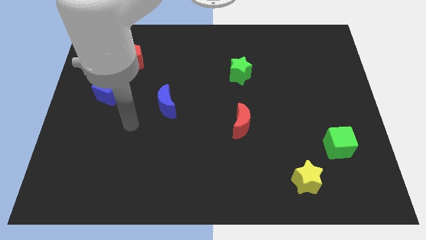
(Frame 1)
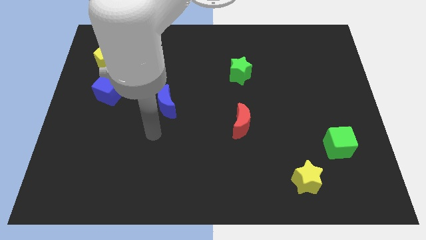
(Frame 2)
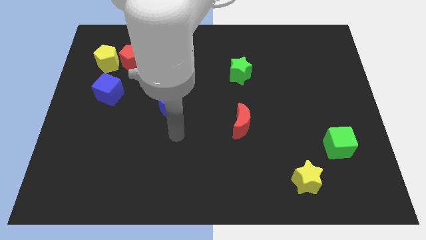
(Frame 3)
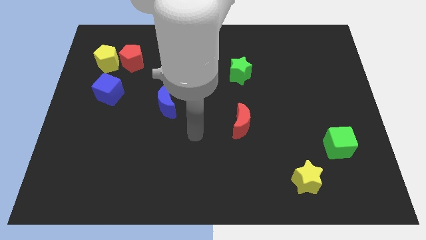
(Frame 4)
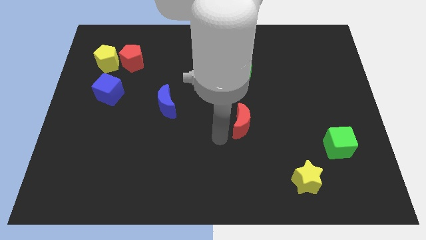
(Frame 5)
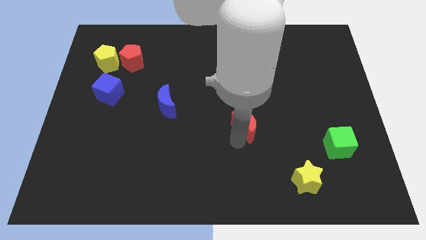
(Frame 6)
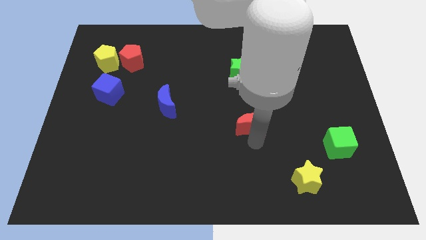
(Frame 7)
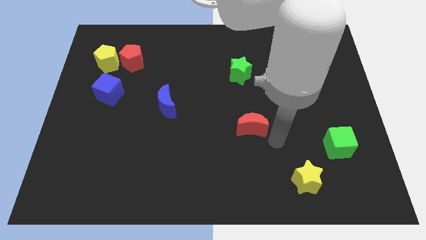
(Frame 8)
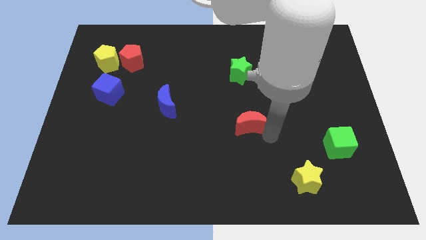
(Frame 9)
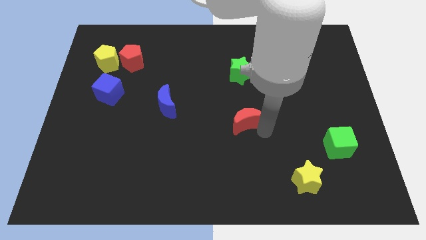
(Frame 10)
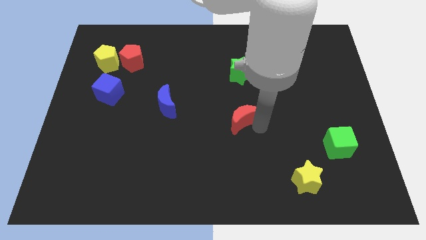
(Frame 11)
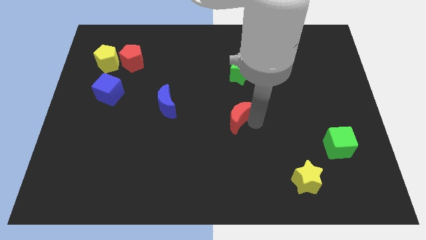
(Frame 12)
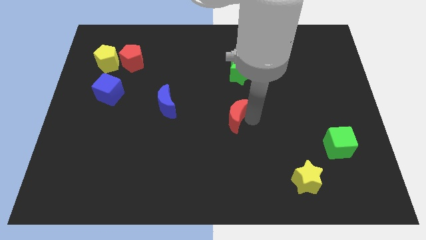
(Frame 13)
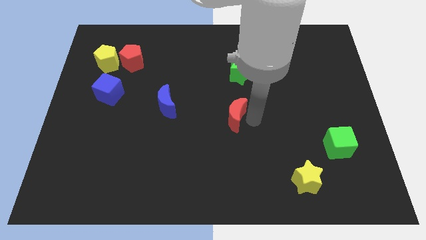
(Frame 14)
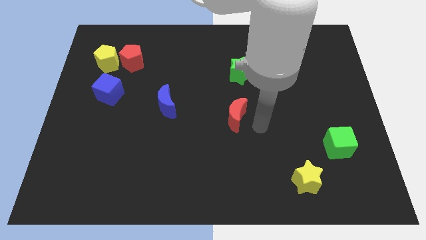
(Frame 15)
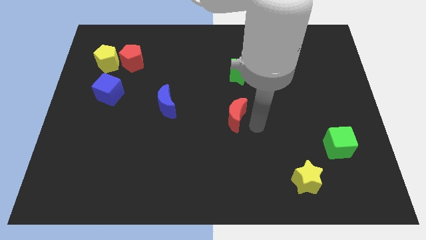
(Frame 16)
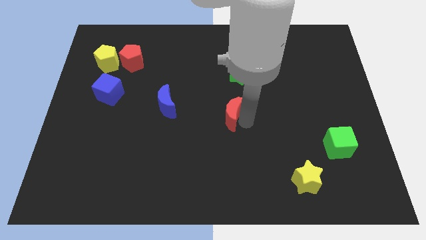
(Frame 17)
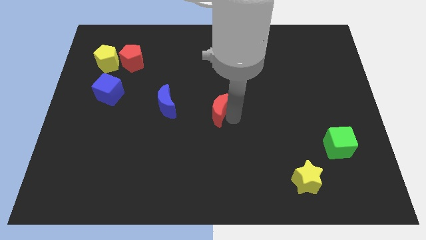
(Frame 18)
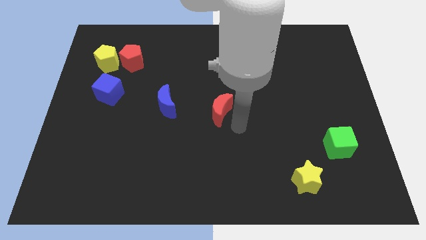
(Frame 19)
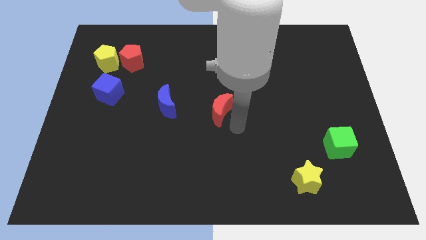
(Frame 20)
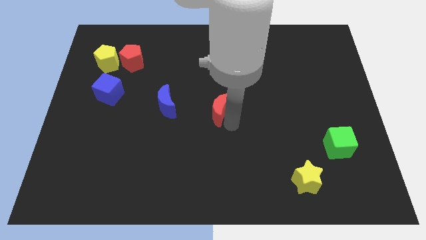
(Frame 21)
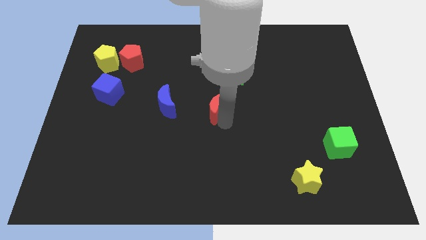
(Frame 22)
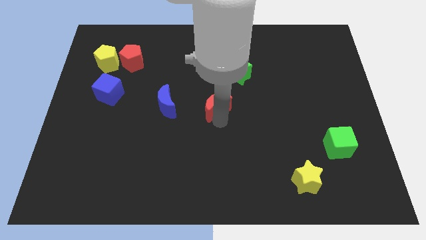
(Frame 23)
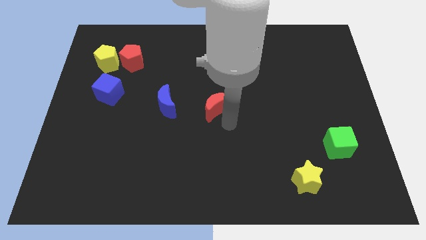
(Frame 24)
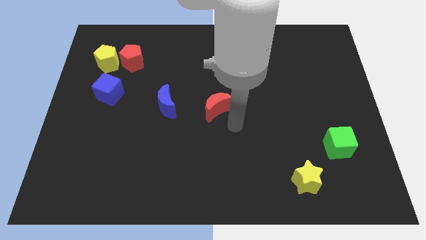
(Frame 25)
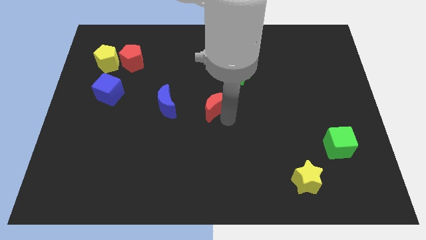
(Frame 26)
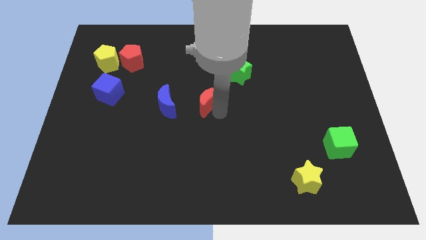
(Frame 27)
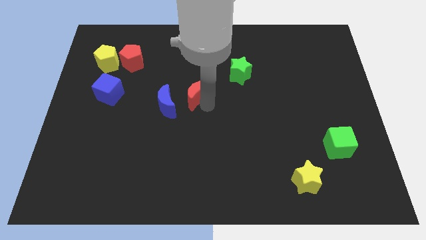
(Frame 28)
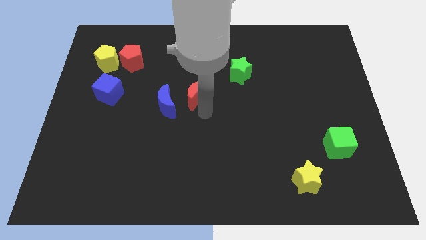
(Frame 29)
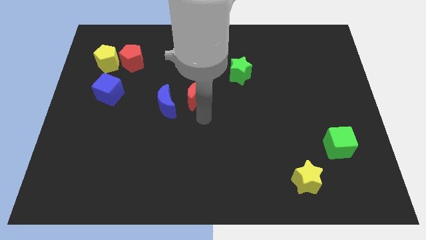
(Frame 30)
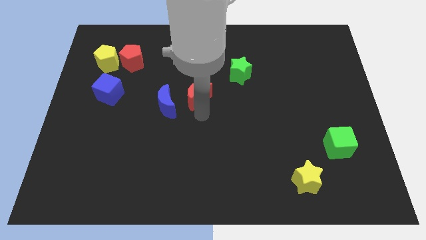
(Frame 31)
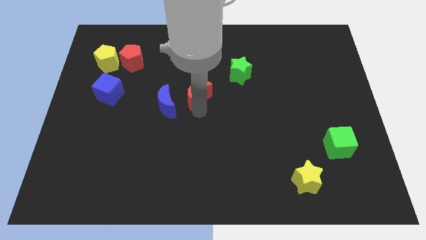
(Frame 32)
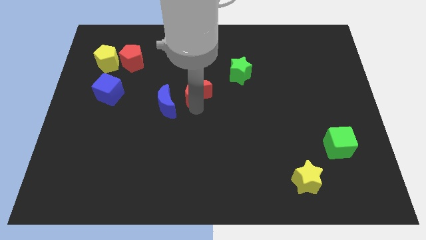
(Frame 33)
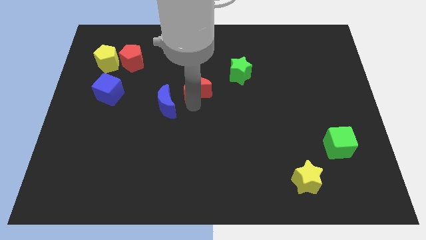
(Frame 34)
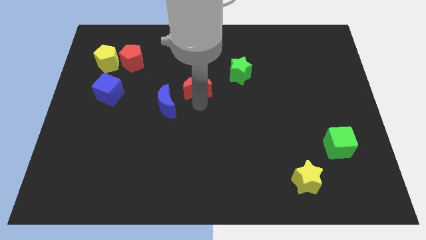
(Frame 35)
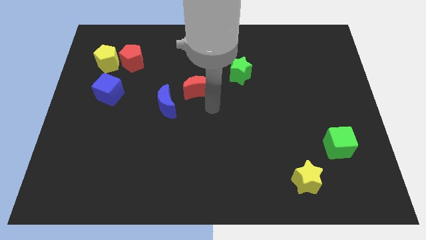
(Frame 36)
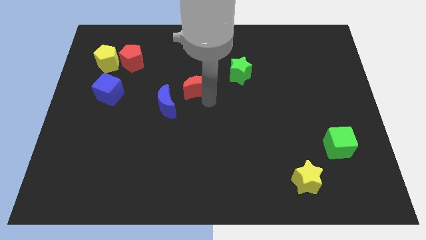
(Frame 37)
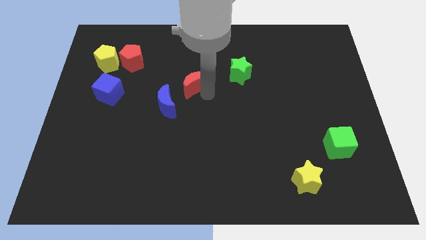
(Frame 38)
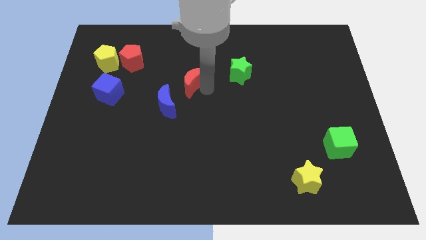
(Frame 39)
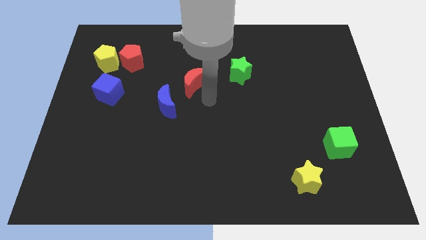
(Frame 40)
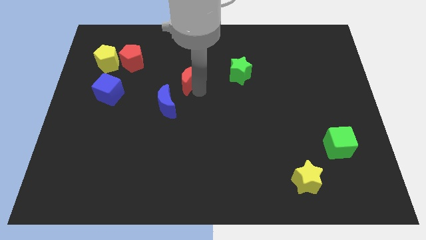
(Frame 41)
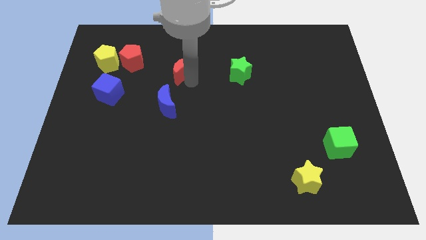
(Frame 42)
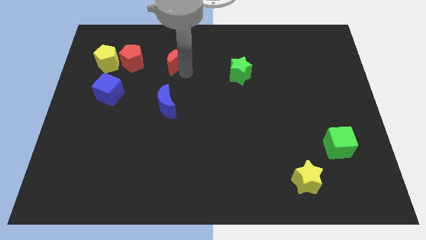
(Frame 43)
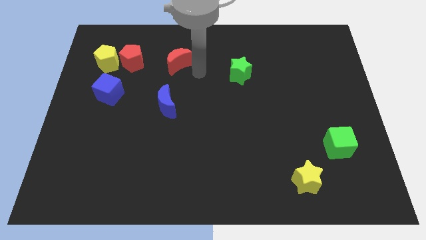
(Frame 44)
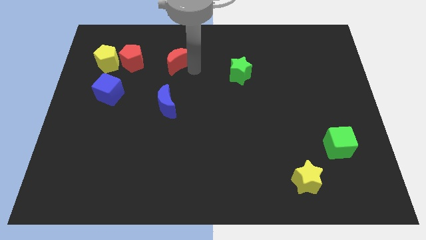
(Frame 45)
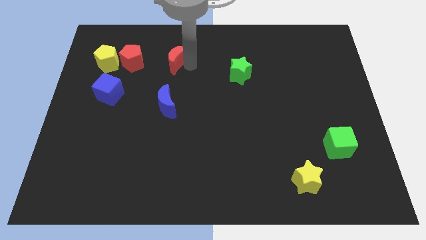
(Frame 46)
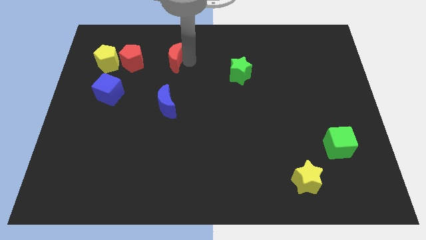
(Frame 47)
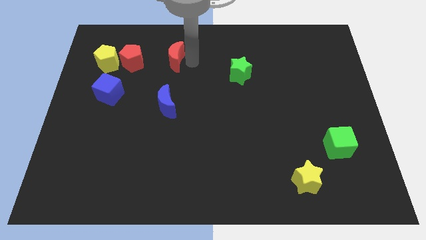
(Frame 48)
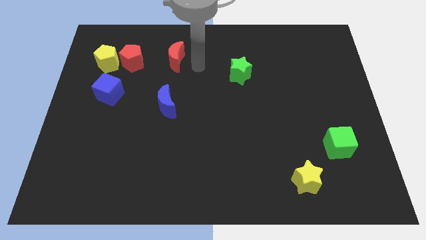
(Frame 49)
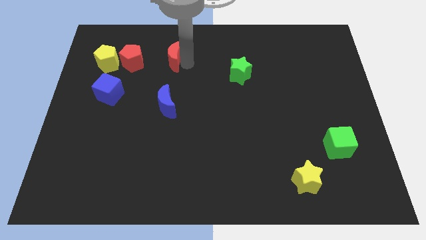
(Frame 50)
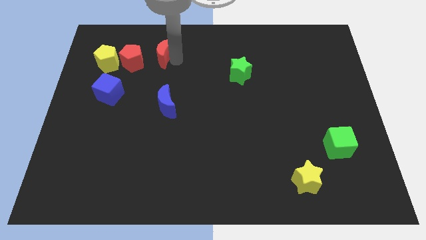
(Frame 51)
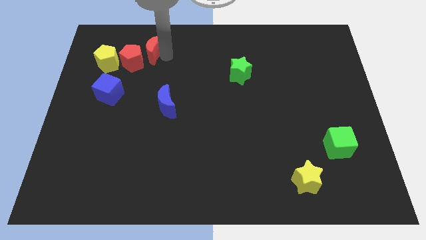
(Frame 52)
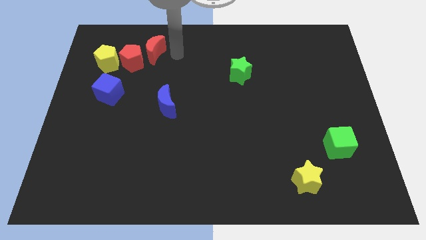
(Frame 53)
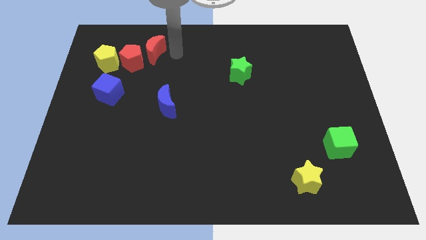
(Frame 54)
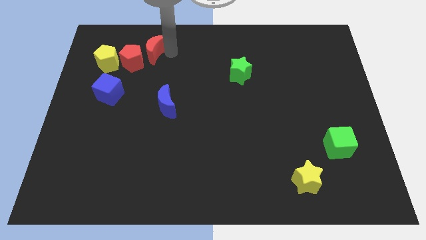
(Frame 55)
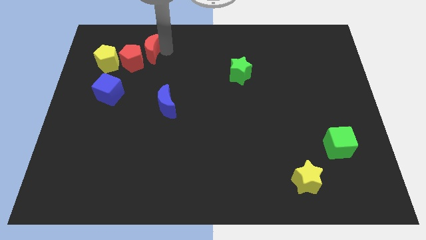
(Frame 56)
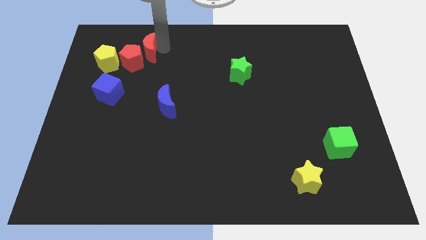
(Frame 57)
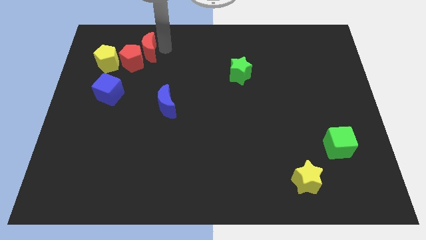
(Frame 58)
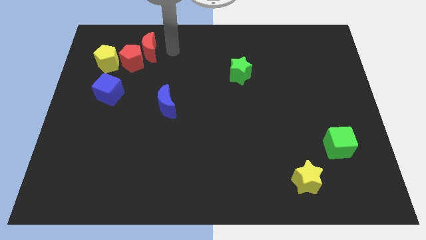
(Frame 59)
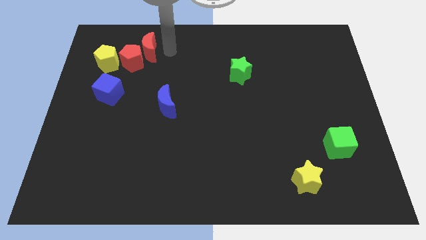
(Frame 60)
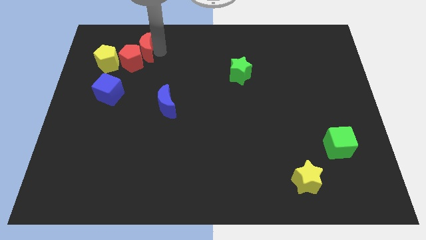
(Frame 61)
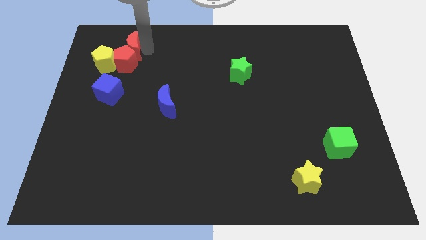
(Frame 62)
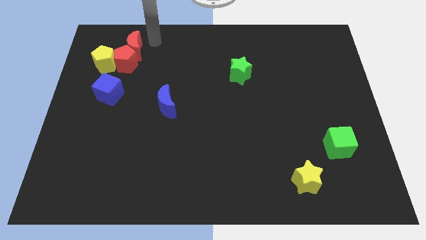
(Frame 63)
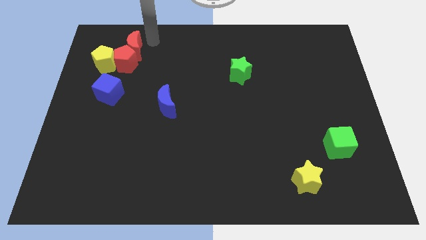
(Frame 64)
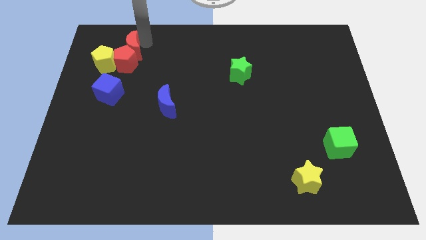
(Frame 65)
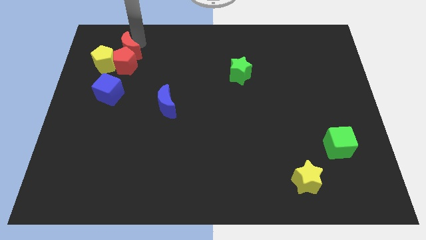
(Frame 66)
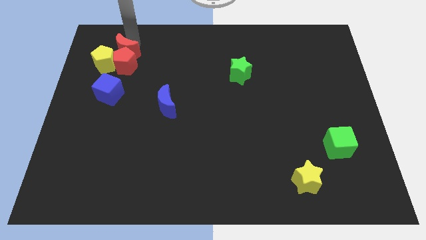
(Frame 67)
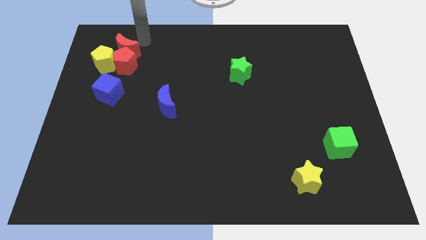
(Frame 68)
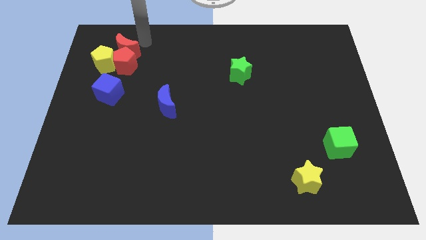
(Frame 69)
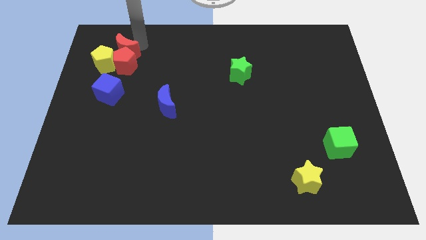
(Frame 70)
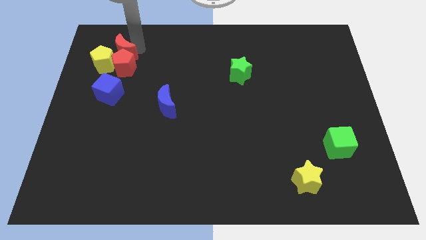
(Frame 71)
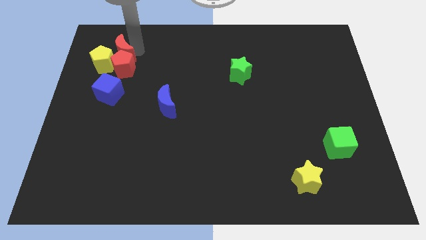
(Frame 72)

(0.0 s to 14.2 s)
move the red moon towards the yellow pentagon
